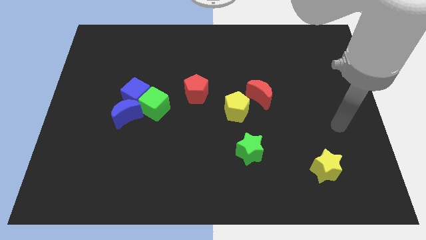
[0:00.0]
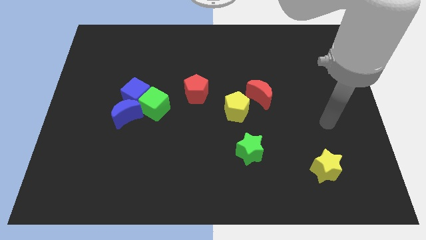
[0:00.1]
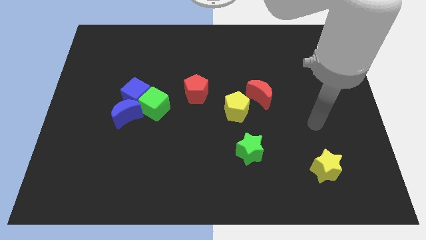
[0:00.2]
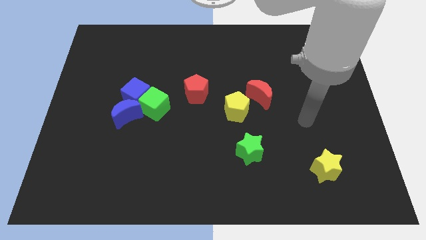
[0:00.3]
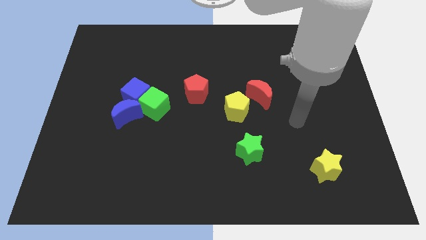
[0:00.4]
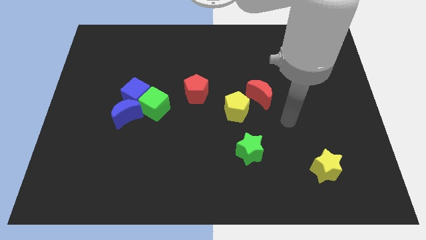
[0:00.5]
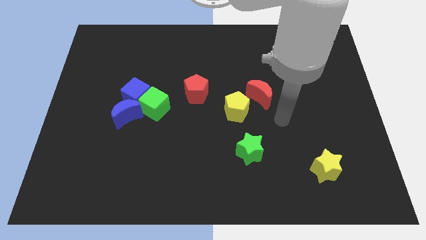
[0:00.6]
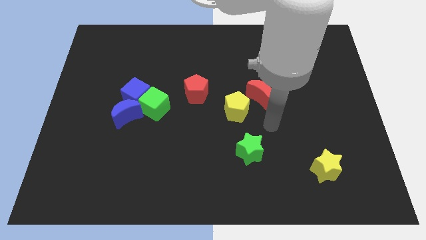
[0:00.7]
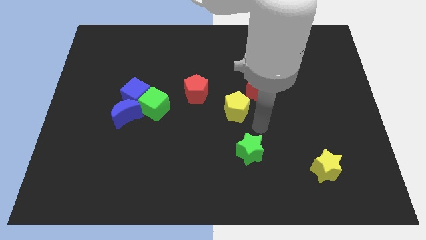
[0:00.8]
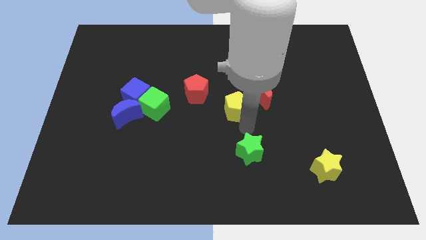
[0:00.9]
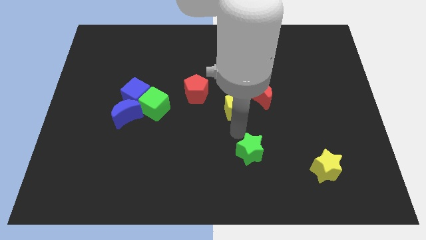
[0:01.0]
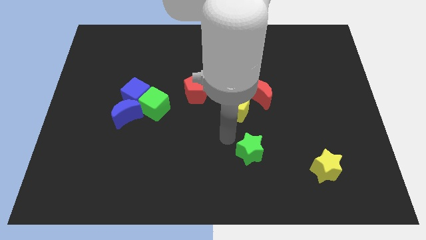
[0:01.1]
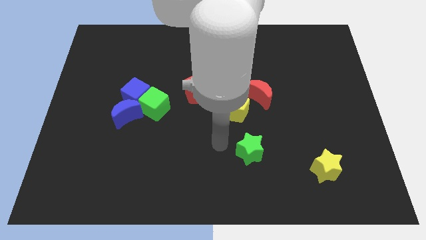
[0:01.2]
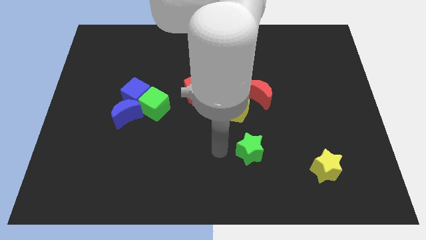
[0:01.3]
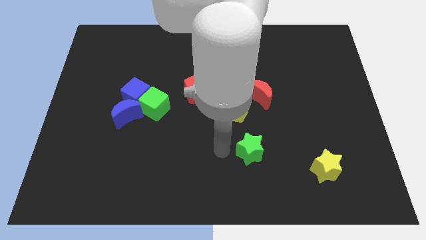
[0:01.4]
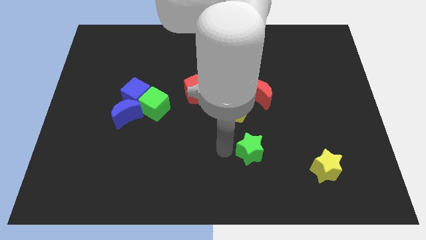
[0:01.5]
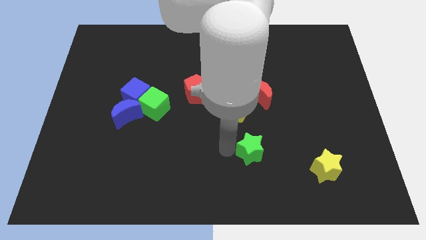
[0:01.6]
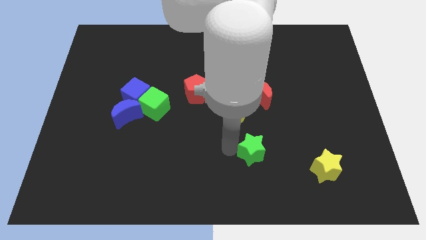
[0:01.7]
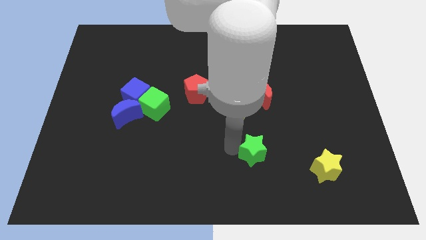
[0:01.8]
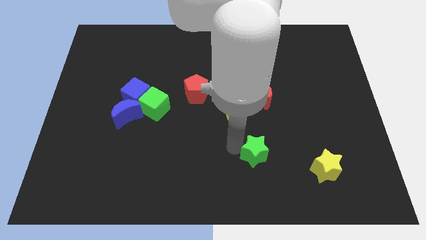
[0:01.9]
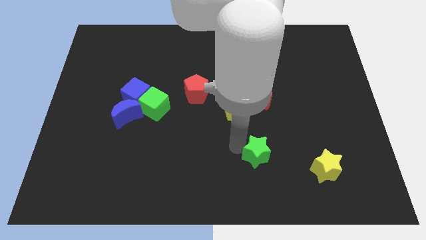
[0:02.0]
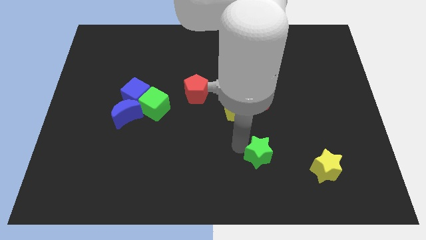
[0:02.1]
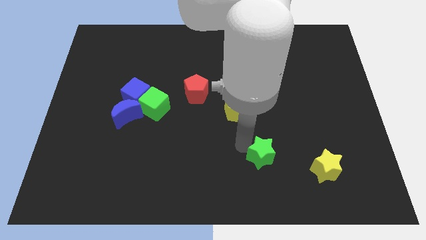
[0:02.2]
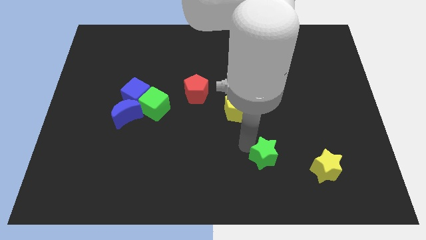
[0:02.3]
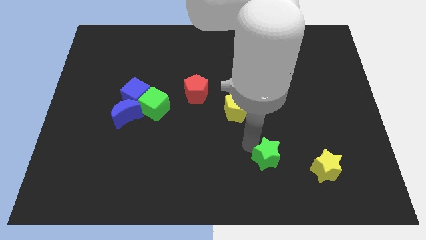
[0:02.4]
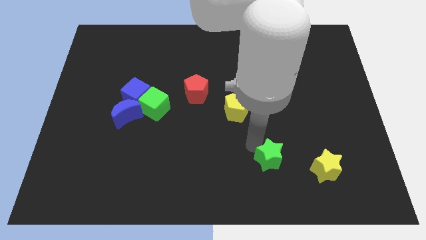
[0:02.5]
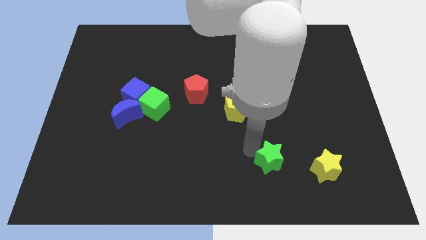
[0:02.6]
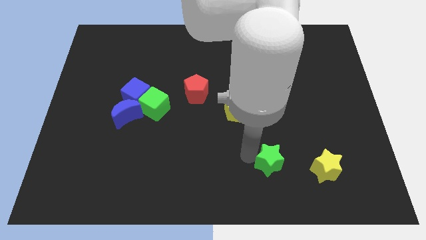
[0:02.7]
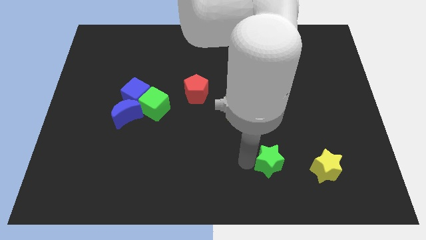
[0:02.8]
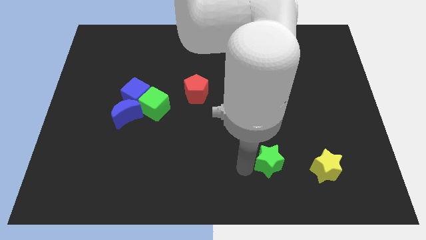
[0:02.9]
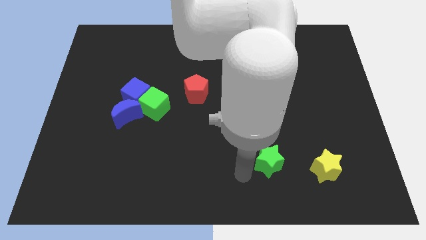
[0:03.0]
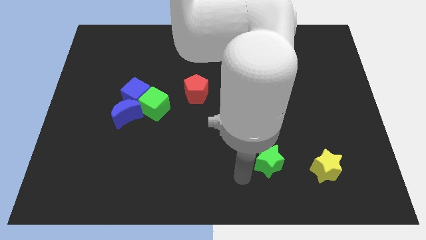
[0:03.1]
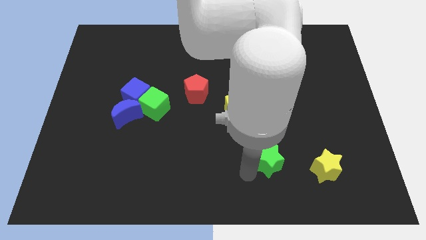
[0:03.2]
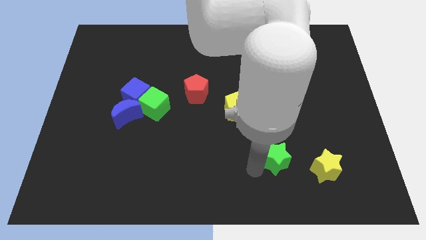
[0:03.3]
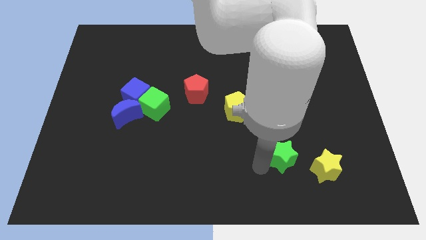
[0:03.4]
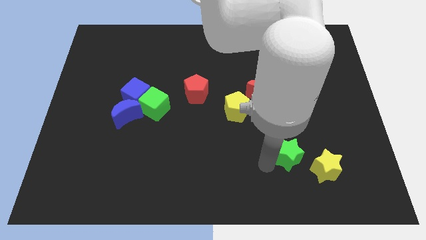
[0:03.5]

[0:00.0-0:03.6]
push the green star a little bit to the right

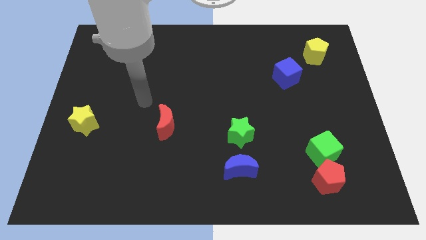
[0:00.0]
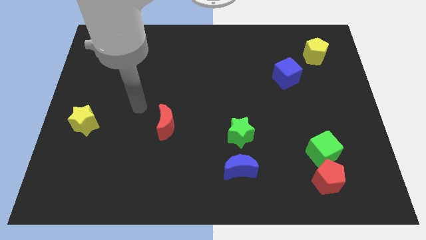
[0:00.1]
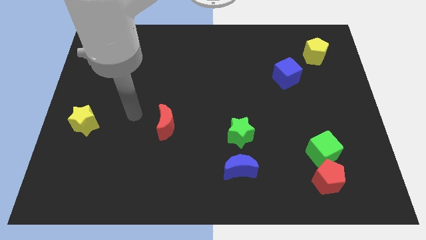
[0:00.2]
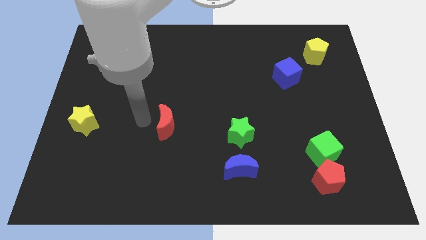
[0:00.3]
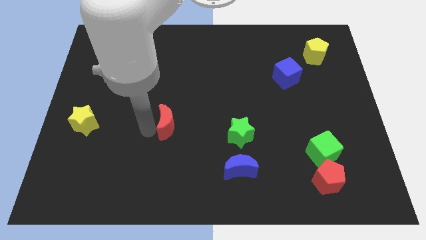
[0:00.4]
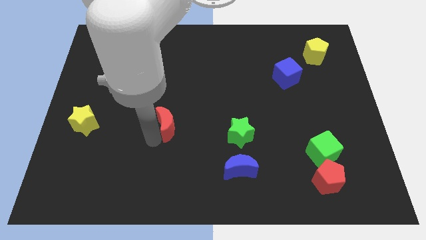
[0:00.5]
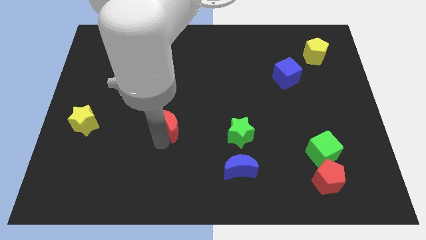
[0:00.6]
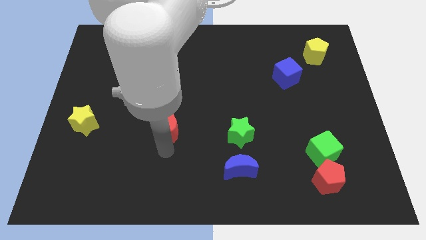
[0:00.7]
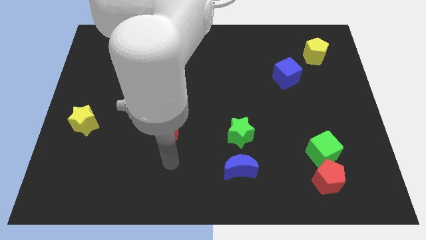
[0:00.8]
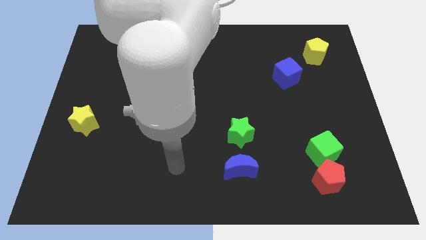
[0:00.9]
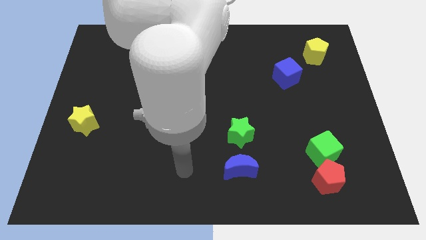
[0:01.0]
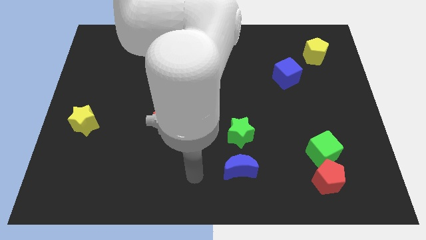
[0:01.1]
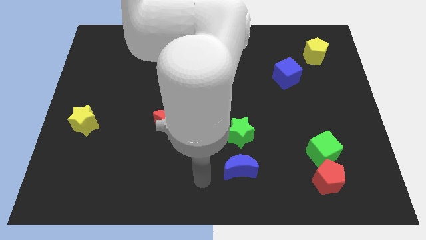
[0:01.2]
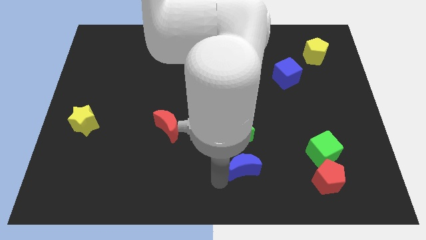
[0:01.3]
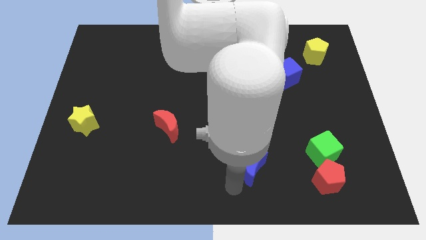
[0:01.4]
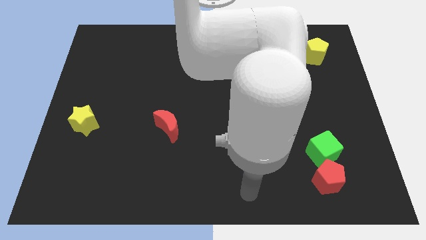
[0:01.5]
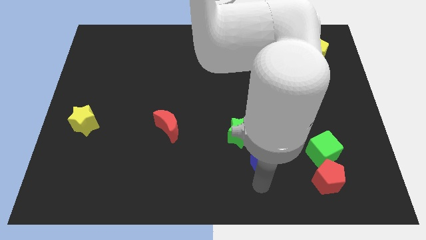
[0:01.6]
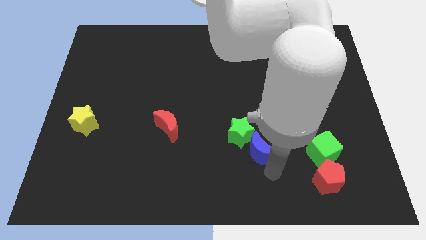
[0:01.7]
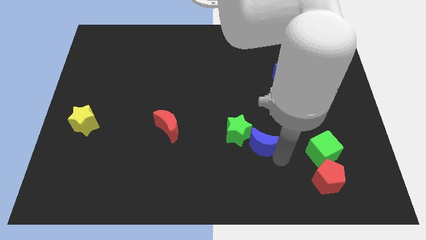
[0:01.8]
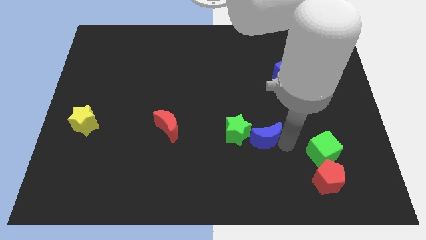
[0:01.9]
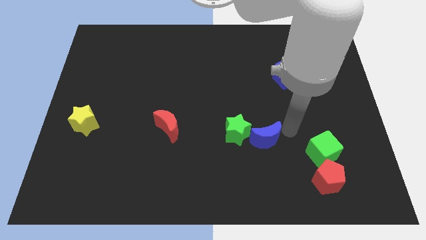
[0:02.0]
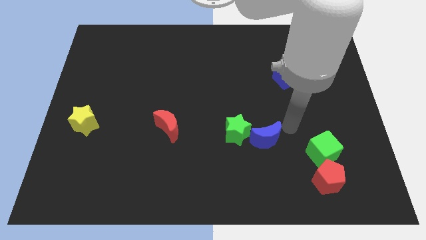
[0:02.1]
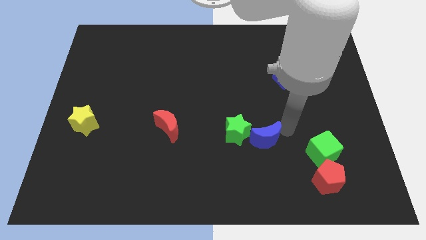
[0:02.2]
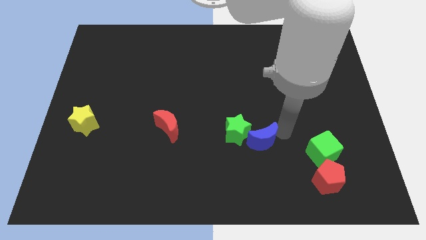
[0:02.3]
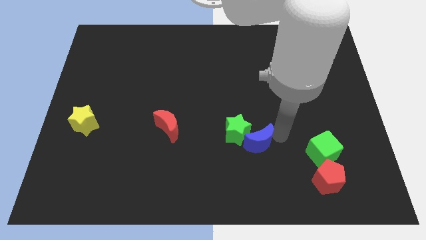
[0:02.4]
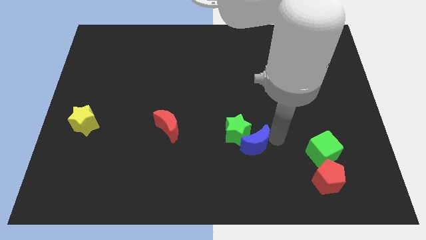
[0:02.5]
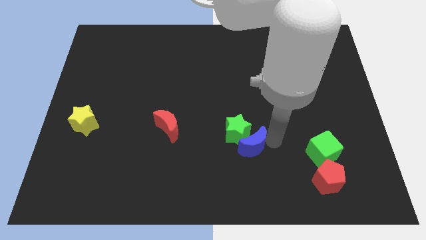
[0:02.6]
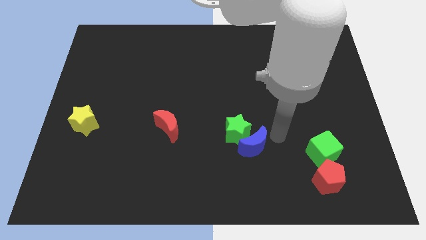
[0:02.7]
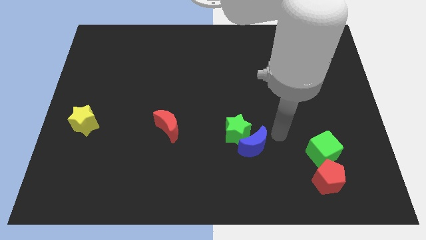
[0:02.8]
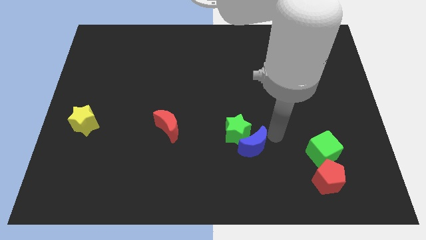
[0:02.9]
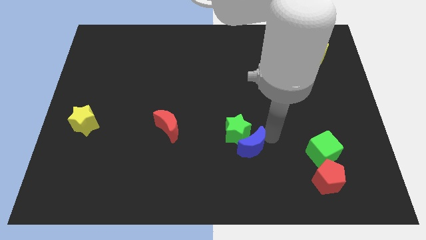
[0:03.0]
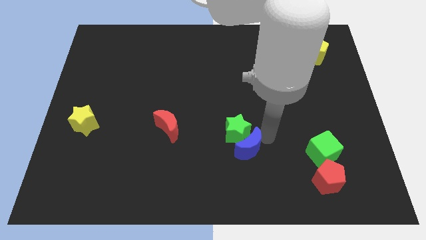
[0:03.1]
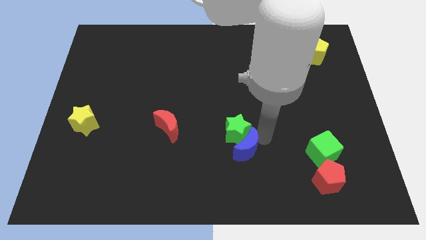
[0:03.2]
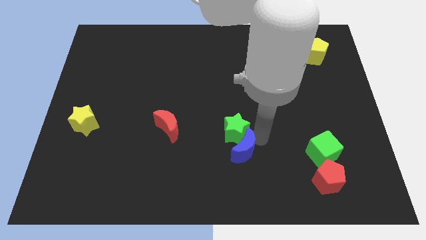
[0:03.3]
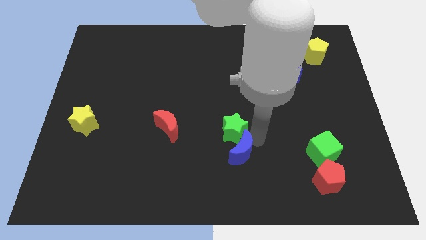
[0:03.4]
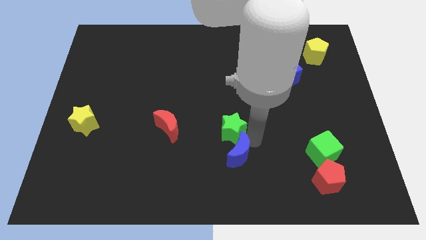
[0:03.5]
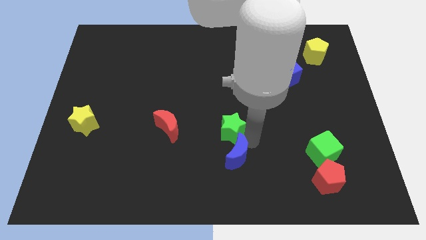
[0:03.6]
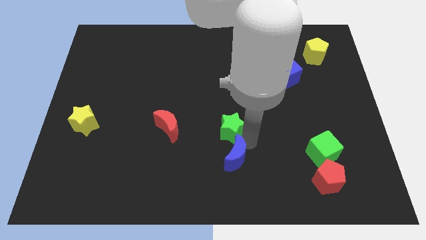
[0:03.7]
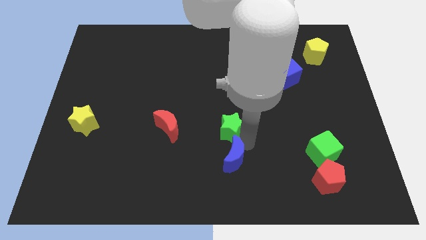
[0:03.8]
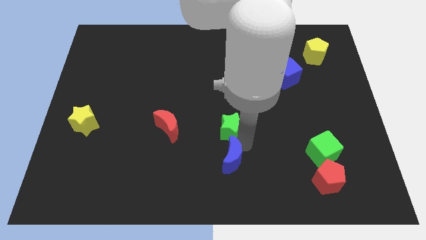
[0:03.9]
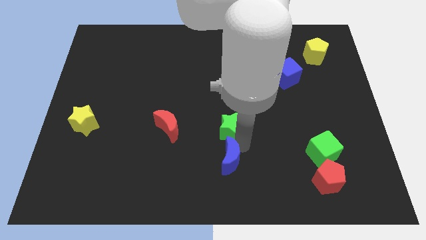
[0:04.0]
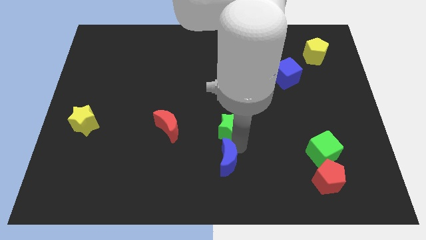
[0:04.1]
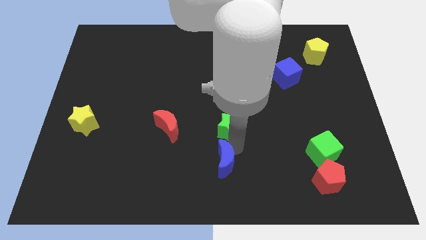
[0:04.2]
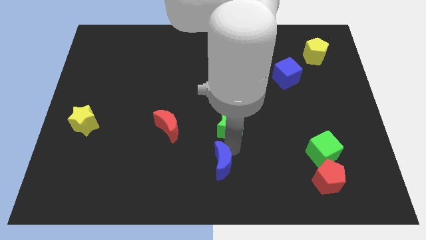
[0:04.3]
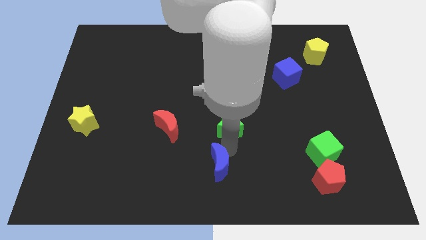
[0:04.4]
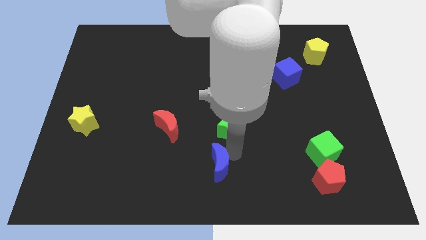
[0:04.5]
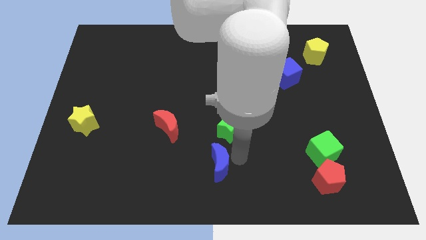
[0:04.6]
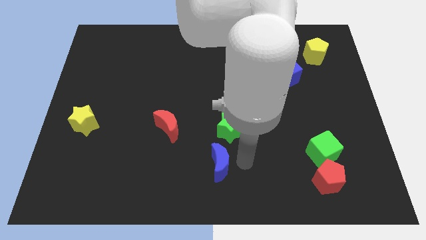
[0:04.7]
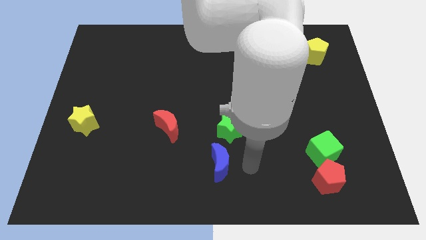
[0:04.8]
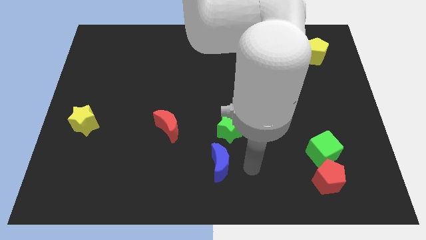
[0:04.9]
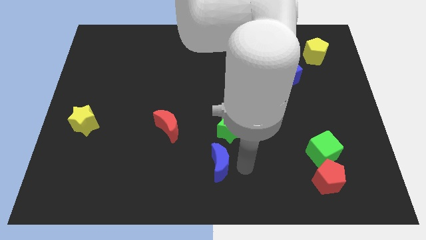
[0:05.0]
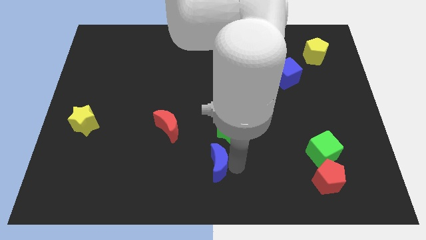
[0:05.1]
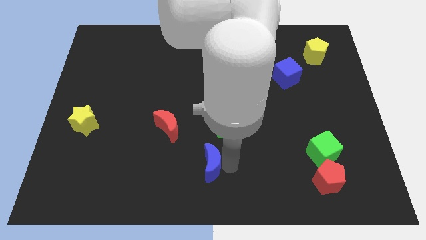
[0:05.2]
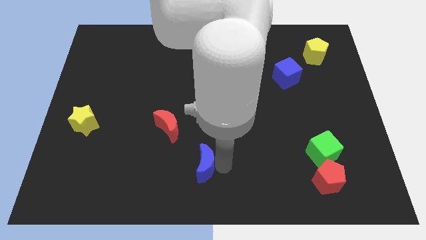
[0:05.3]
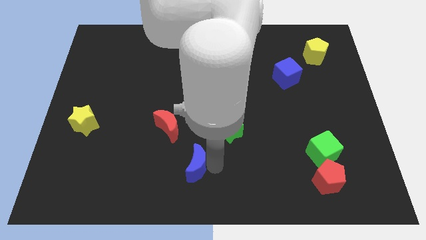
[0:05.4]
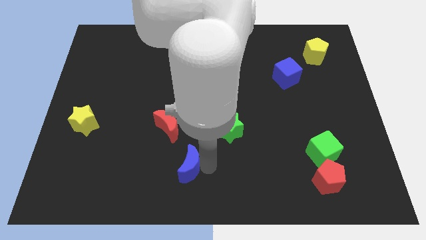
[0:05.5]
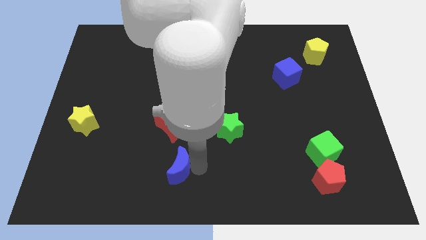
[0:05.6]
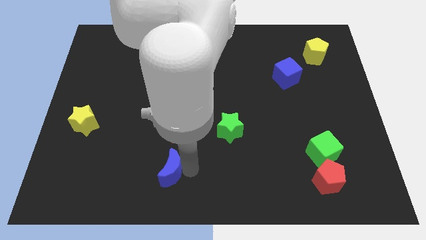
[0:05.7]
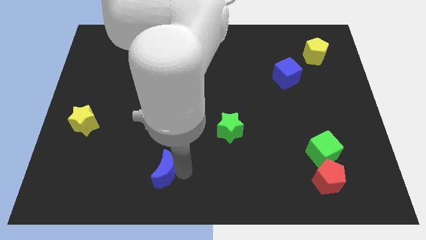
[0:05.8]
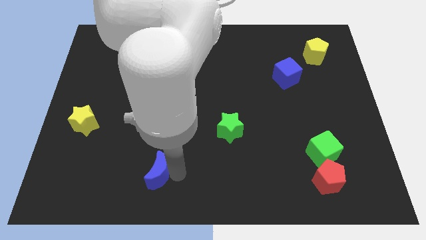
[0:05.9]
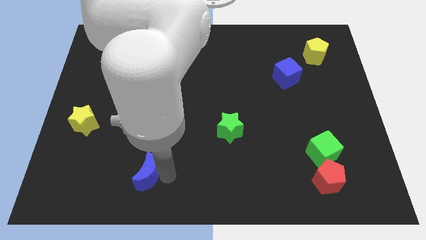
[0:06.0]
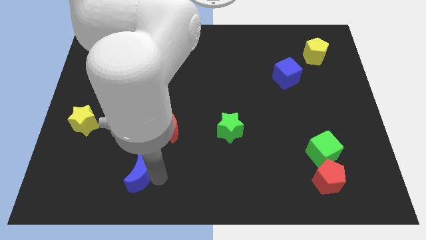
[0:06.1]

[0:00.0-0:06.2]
move the blue moon left
